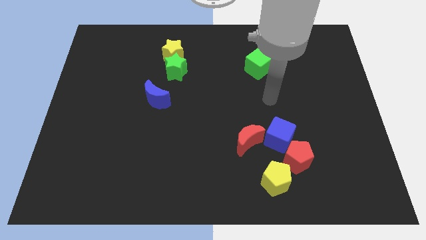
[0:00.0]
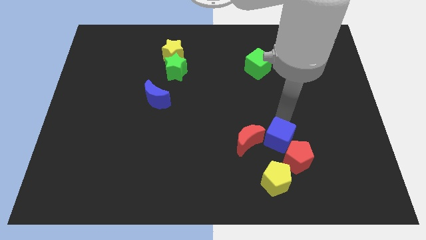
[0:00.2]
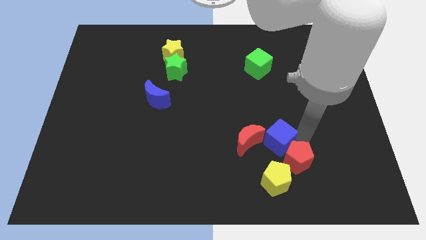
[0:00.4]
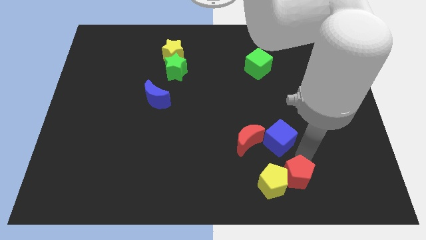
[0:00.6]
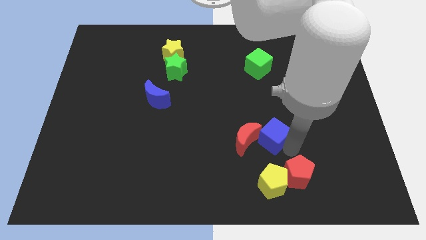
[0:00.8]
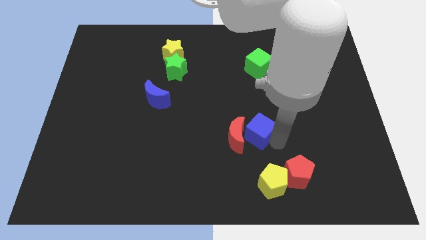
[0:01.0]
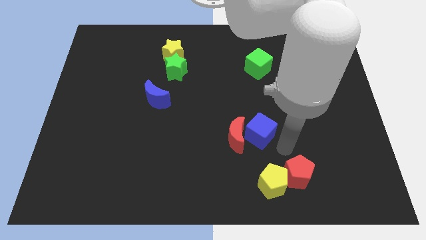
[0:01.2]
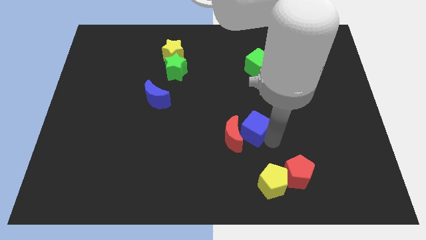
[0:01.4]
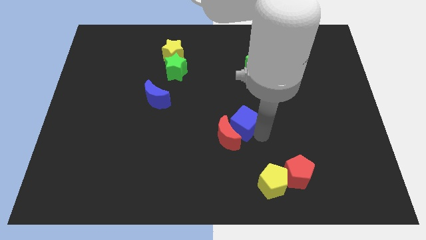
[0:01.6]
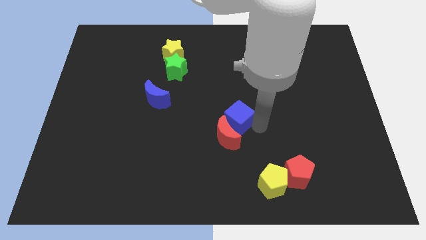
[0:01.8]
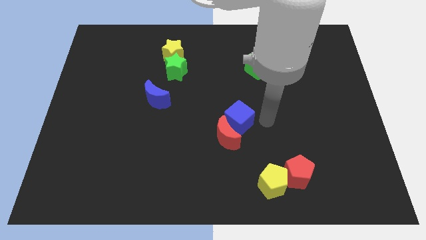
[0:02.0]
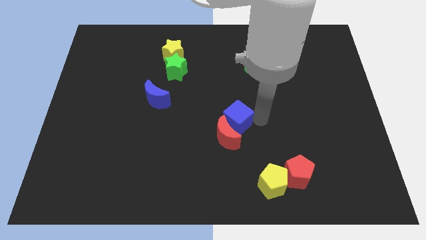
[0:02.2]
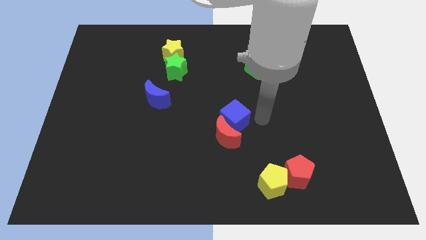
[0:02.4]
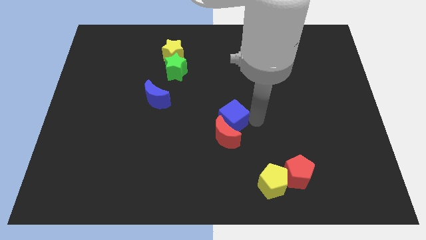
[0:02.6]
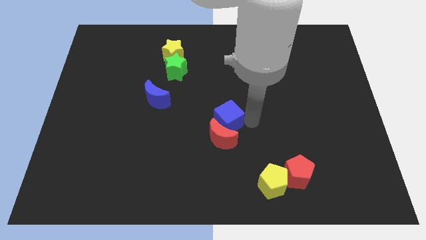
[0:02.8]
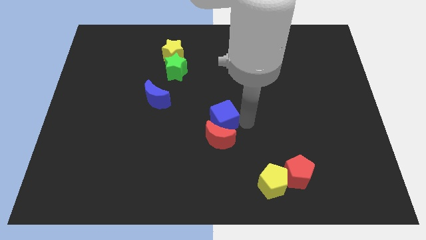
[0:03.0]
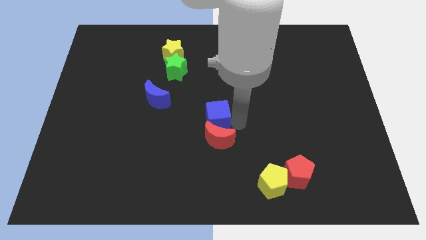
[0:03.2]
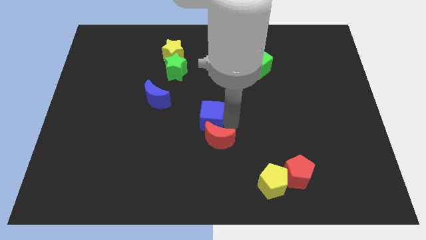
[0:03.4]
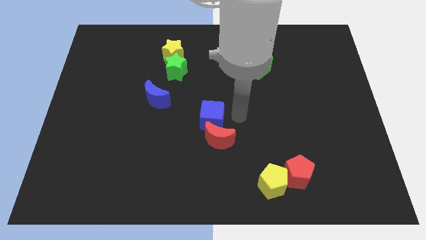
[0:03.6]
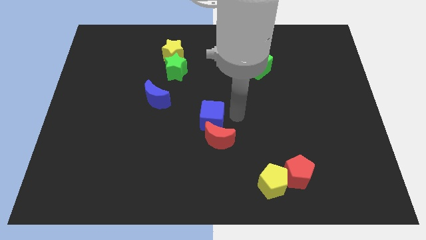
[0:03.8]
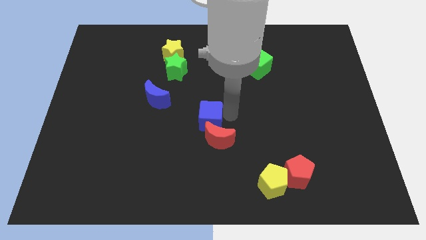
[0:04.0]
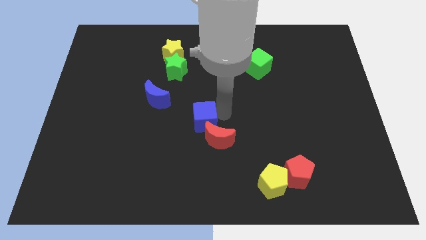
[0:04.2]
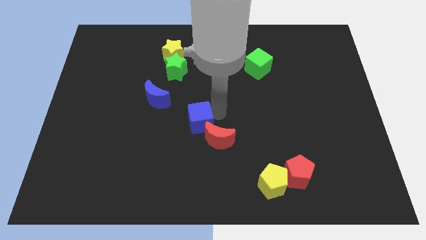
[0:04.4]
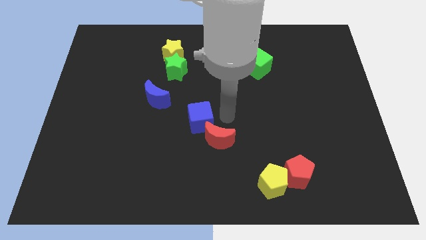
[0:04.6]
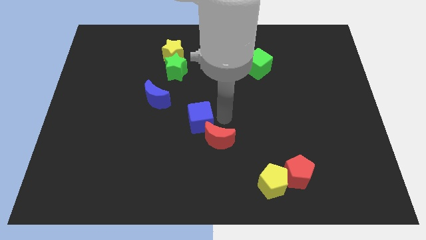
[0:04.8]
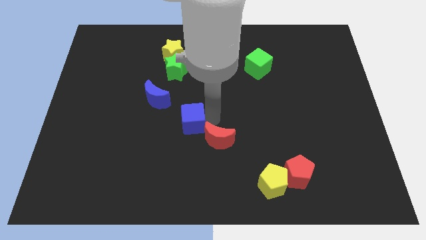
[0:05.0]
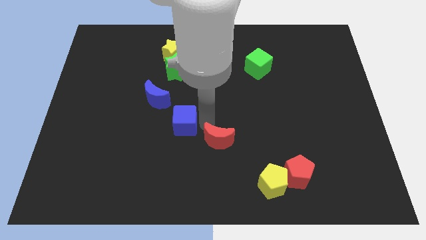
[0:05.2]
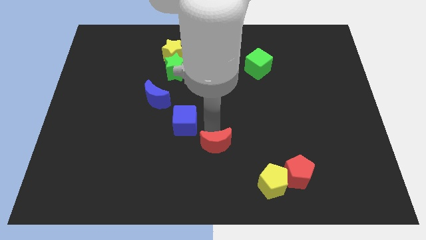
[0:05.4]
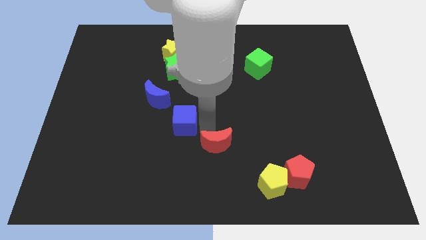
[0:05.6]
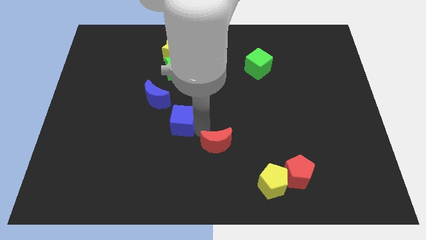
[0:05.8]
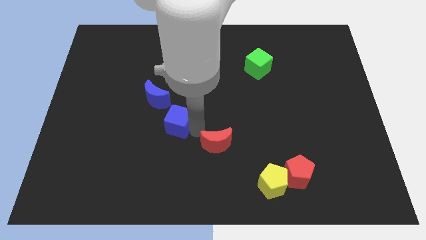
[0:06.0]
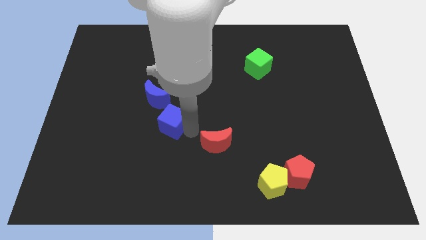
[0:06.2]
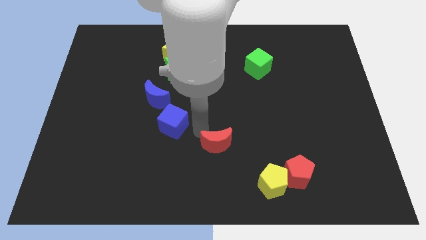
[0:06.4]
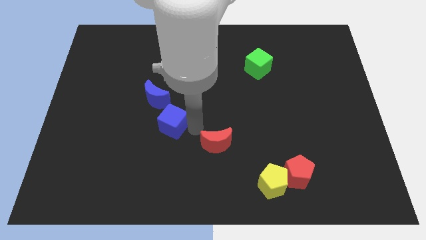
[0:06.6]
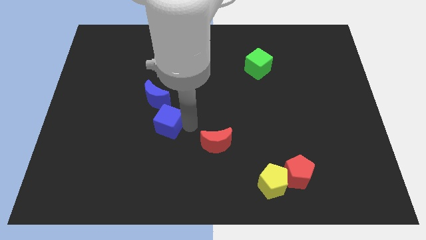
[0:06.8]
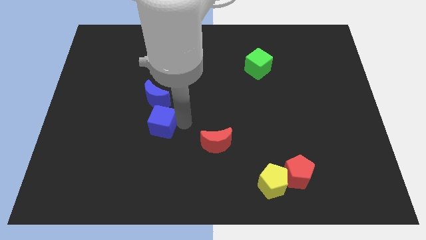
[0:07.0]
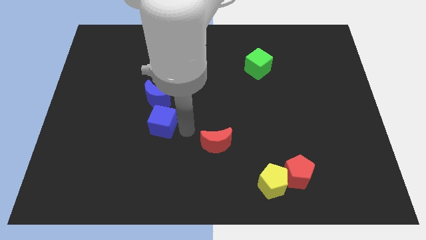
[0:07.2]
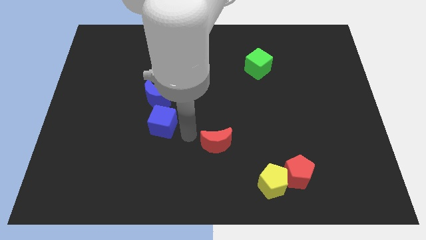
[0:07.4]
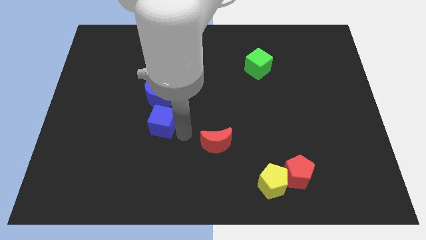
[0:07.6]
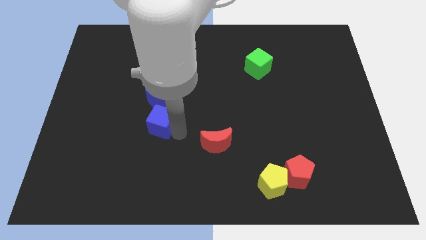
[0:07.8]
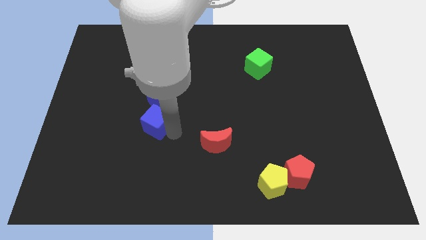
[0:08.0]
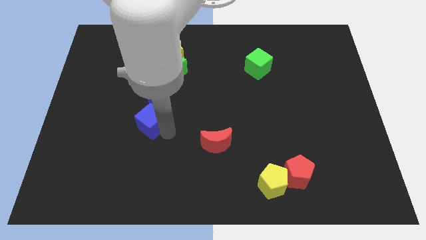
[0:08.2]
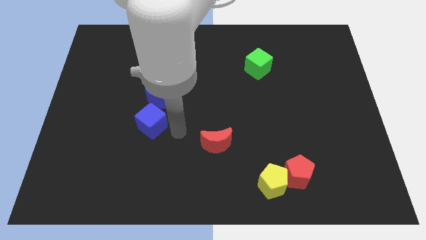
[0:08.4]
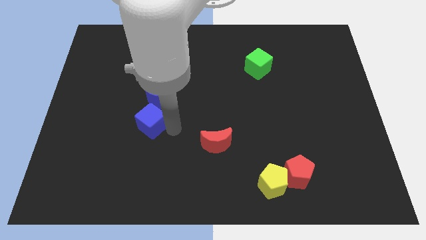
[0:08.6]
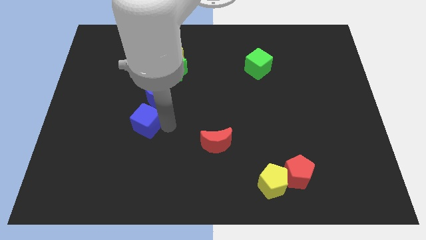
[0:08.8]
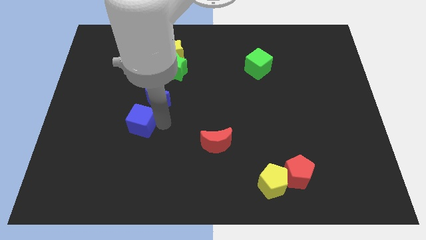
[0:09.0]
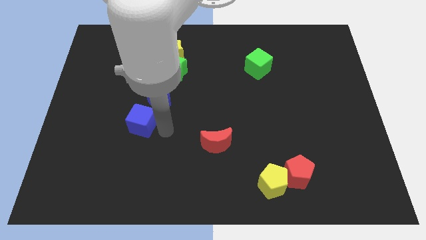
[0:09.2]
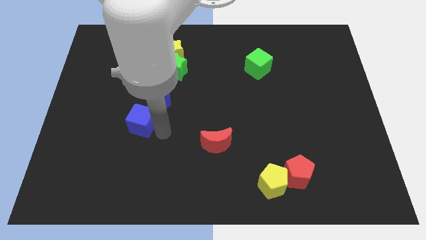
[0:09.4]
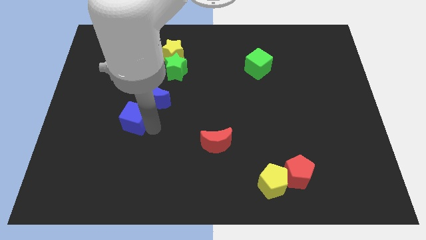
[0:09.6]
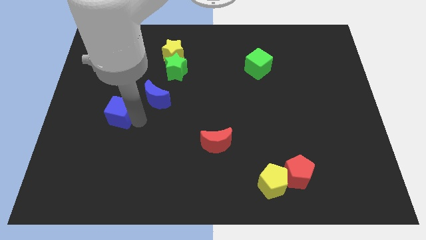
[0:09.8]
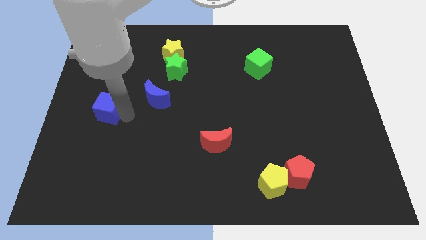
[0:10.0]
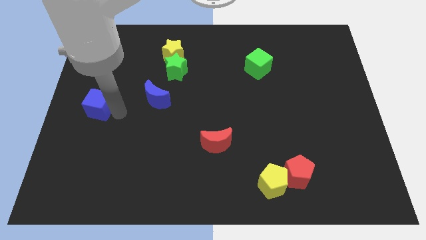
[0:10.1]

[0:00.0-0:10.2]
put the blue cube to the left side of the board

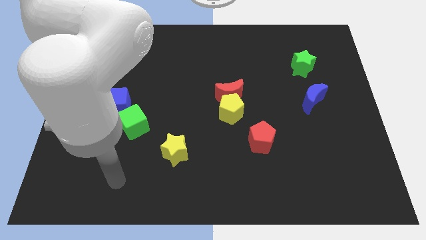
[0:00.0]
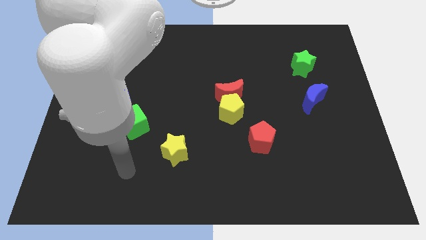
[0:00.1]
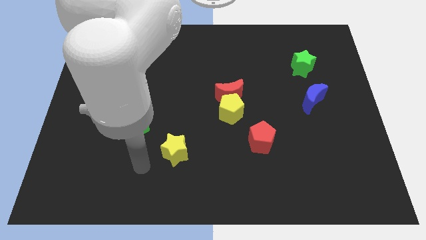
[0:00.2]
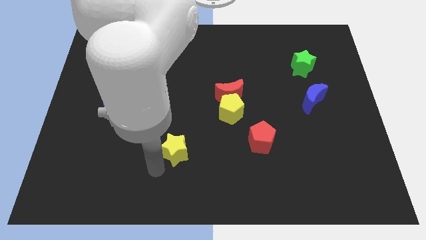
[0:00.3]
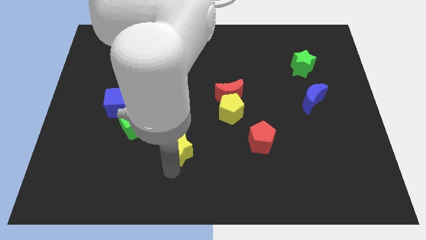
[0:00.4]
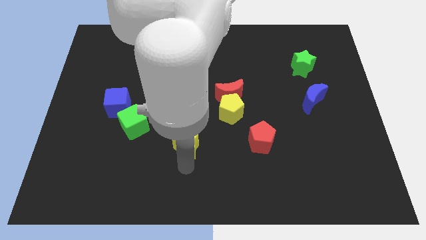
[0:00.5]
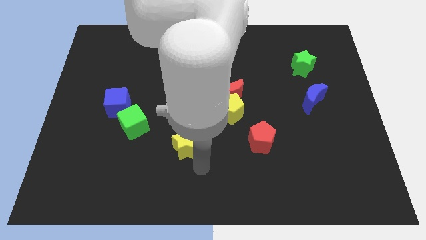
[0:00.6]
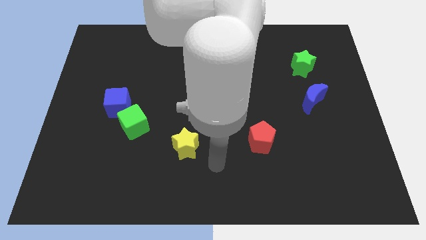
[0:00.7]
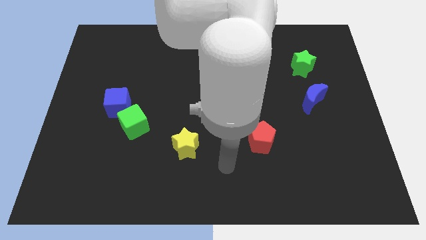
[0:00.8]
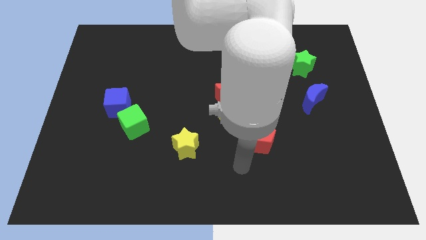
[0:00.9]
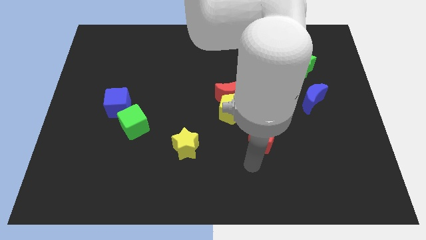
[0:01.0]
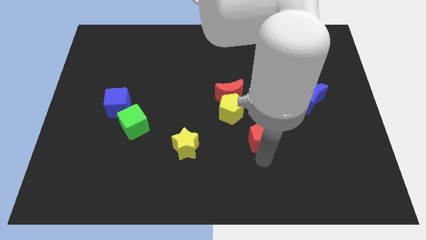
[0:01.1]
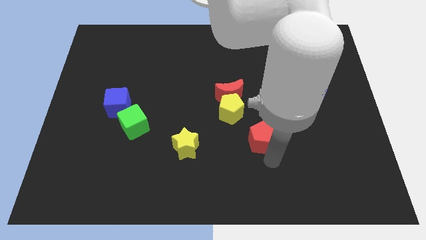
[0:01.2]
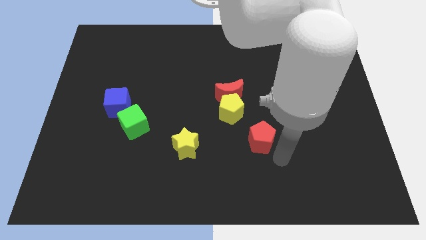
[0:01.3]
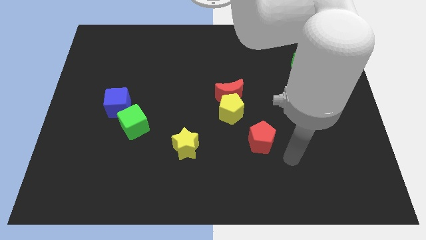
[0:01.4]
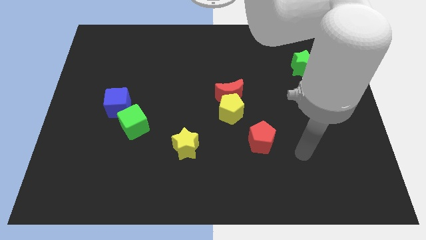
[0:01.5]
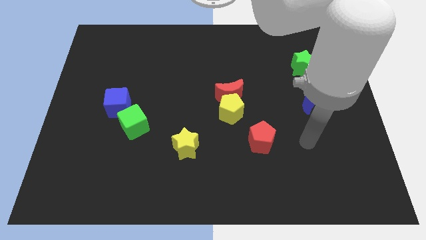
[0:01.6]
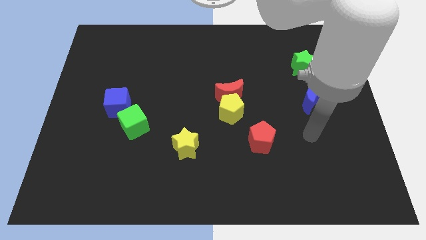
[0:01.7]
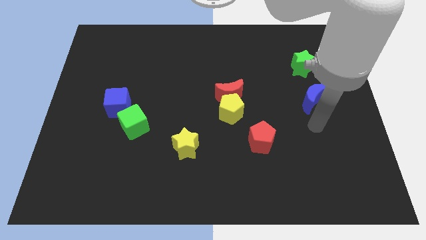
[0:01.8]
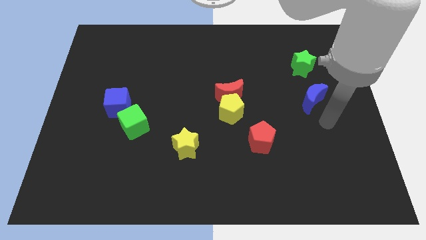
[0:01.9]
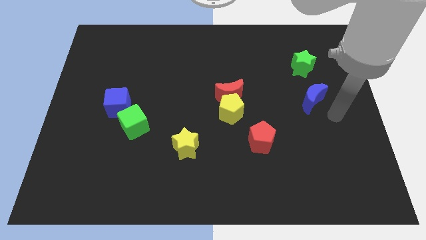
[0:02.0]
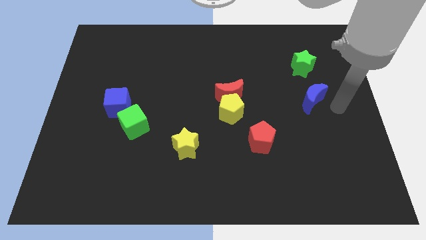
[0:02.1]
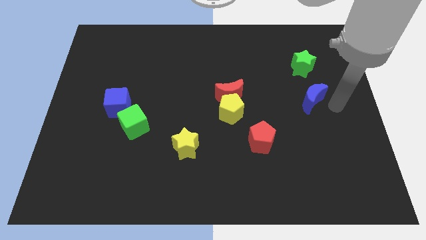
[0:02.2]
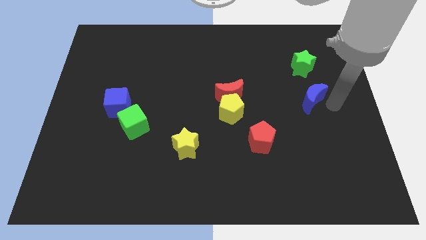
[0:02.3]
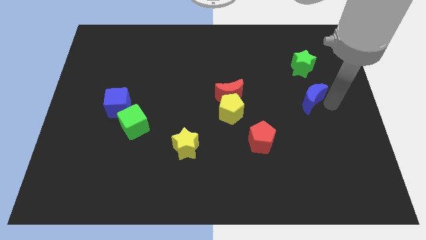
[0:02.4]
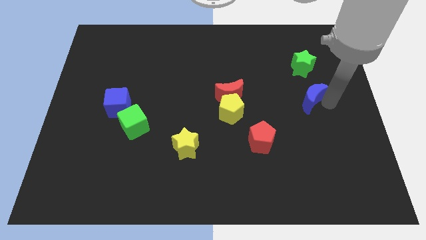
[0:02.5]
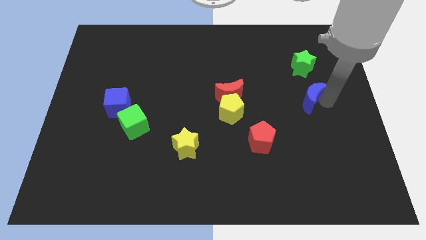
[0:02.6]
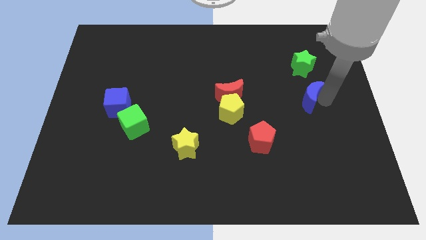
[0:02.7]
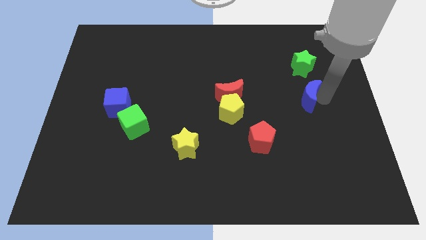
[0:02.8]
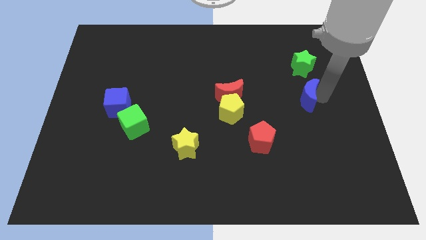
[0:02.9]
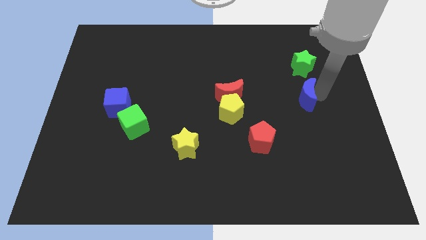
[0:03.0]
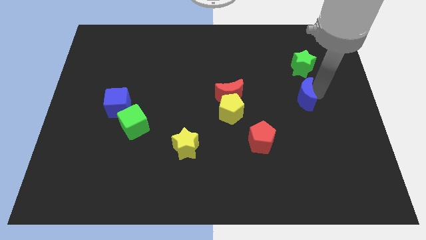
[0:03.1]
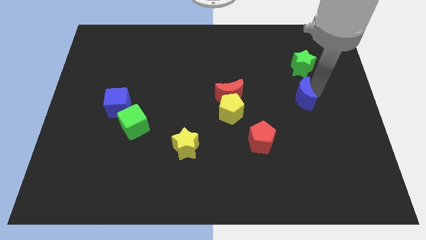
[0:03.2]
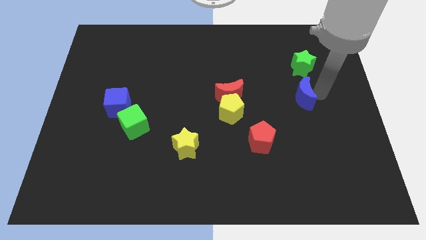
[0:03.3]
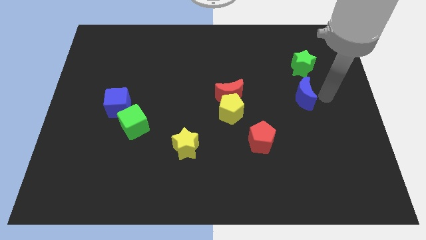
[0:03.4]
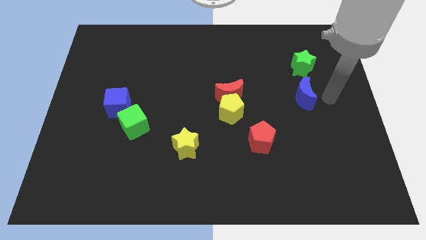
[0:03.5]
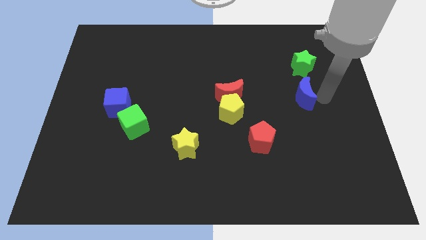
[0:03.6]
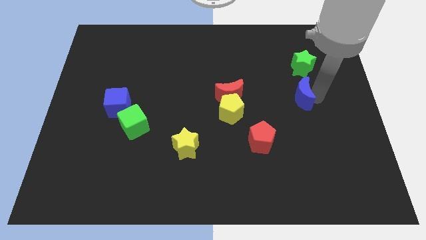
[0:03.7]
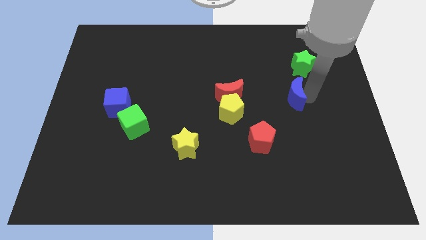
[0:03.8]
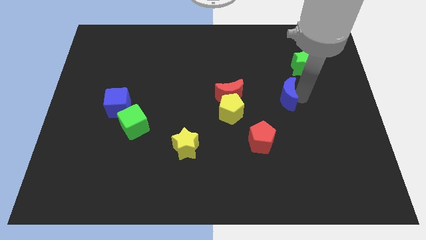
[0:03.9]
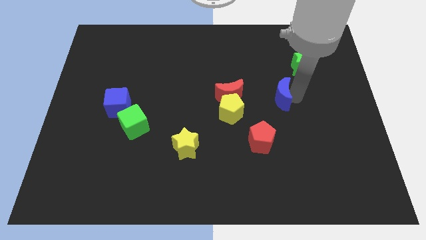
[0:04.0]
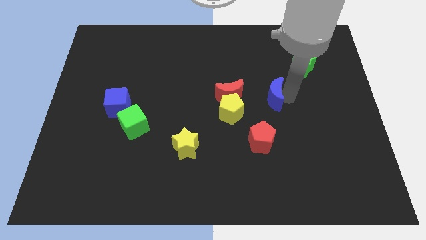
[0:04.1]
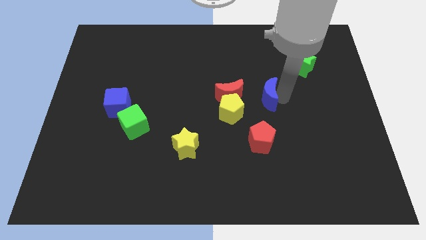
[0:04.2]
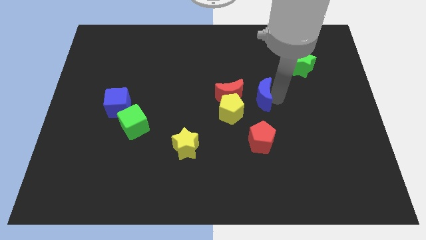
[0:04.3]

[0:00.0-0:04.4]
slide the blue moon to the middle
